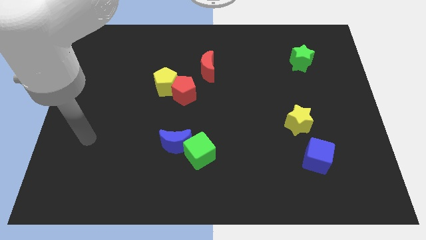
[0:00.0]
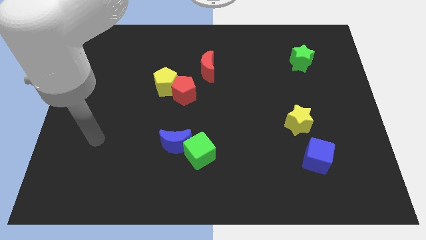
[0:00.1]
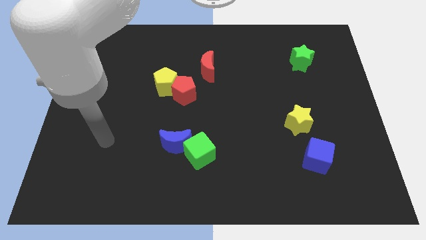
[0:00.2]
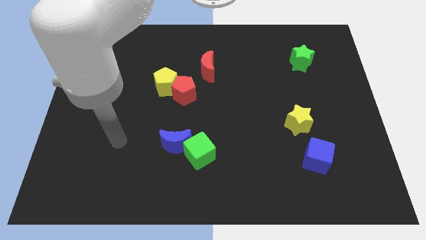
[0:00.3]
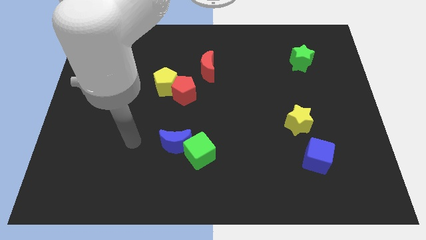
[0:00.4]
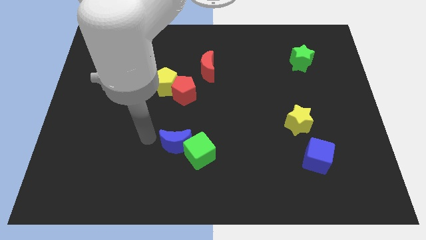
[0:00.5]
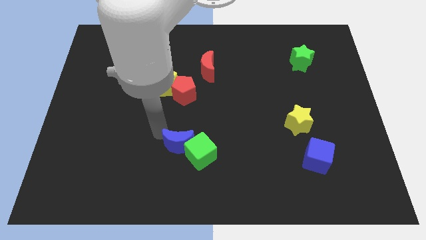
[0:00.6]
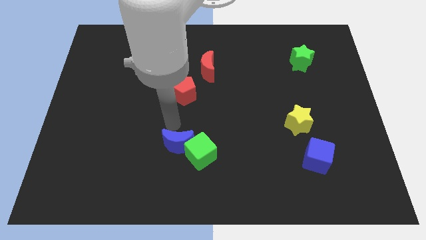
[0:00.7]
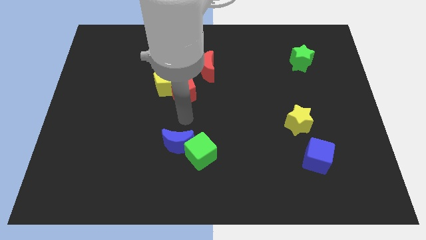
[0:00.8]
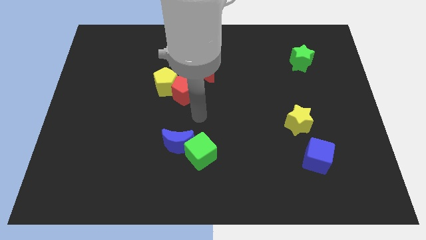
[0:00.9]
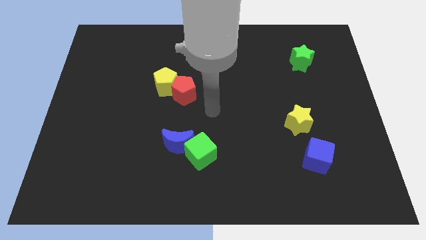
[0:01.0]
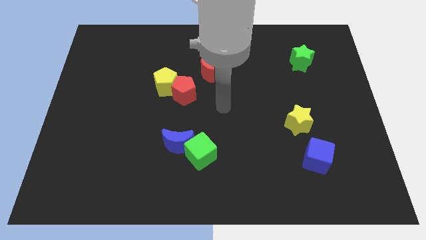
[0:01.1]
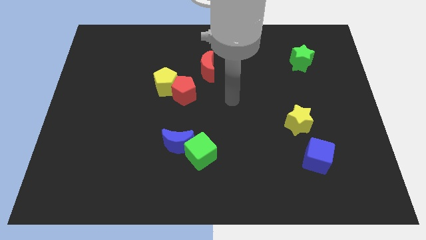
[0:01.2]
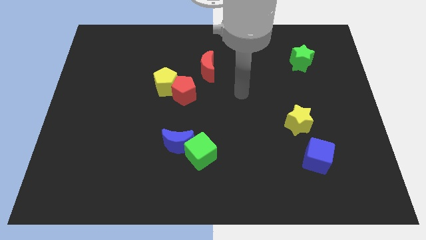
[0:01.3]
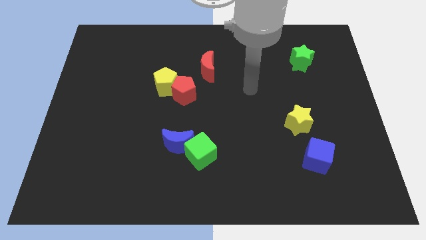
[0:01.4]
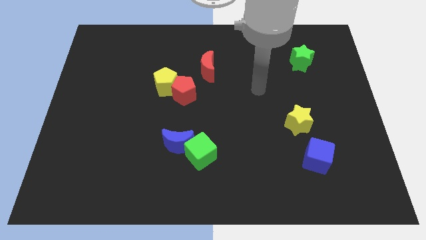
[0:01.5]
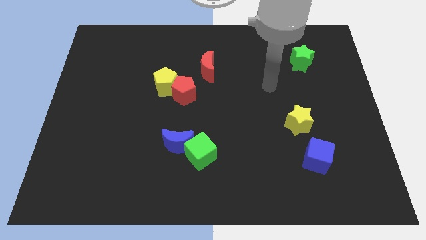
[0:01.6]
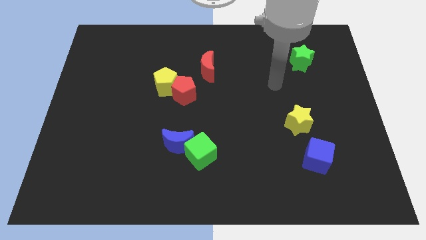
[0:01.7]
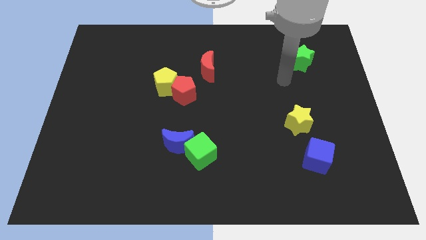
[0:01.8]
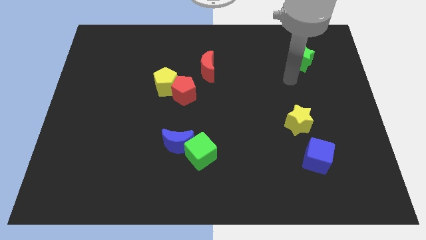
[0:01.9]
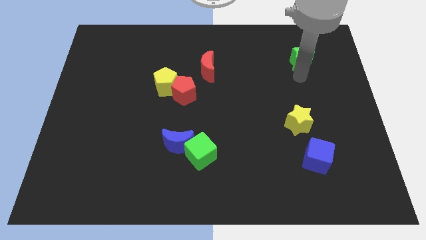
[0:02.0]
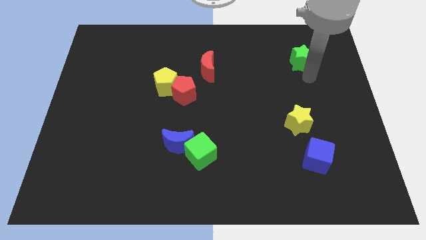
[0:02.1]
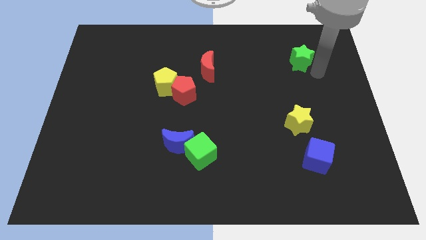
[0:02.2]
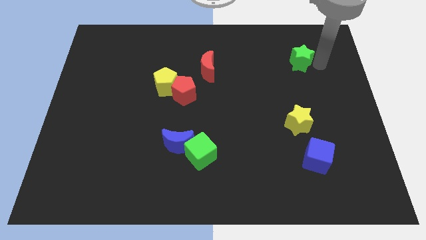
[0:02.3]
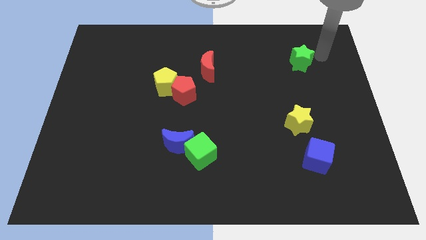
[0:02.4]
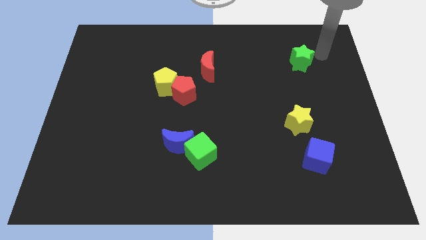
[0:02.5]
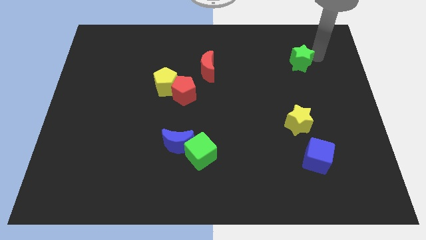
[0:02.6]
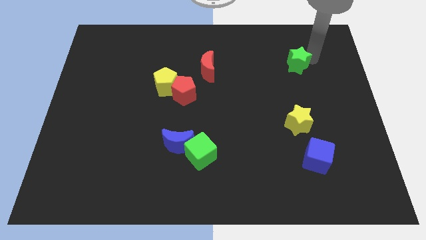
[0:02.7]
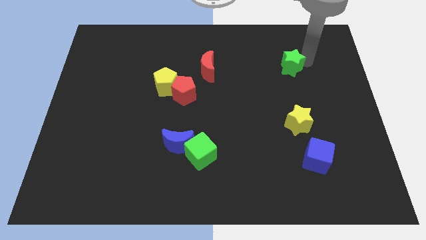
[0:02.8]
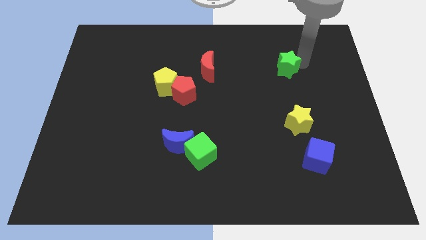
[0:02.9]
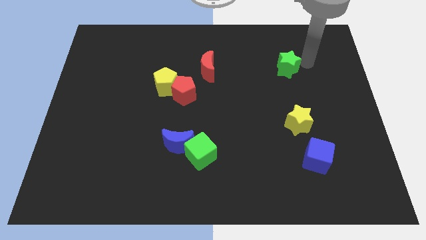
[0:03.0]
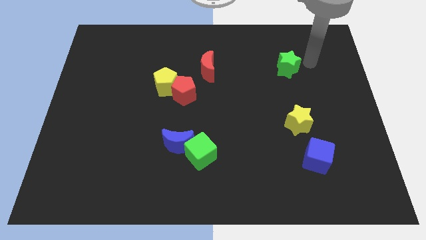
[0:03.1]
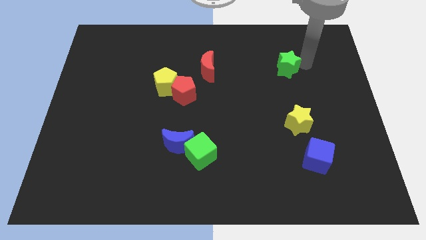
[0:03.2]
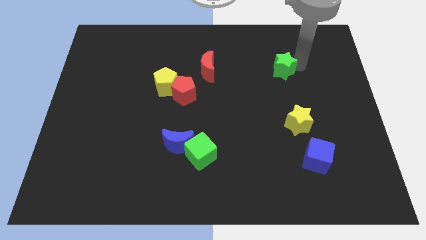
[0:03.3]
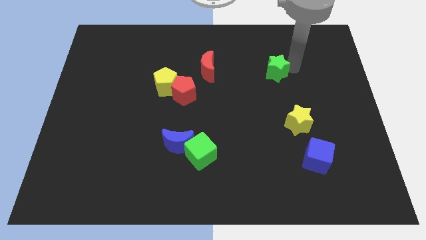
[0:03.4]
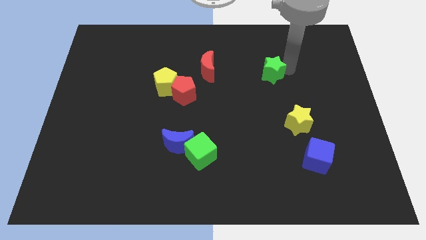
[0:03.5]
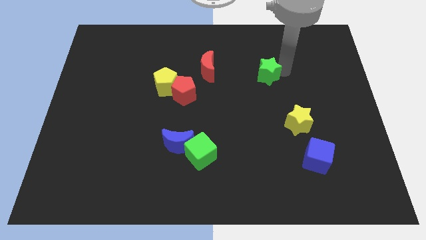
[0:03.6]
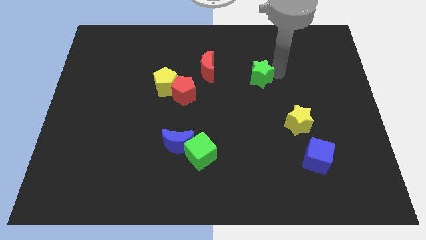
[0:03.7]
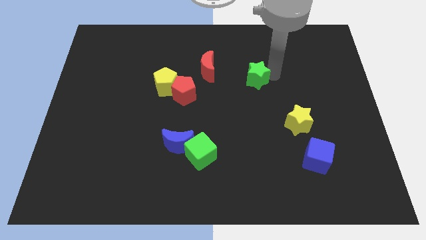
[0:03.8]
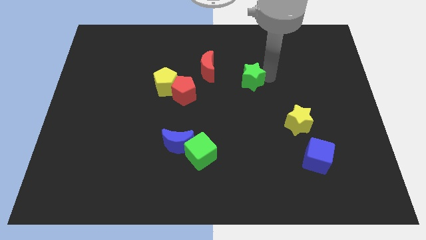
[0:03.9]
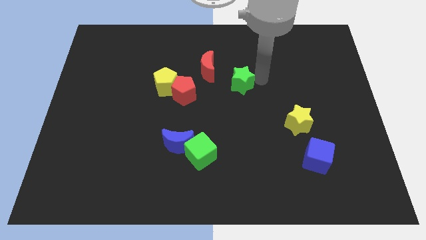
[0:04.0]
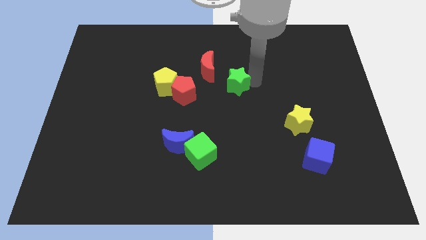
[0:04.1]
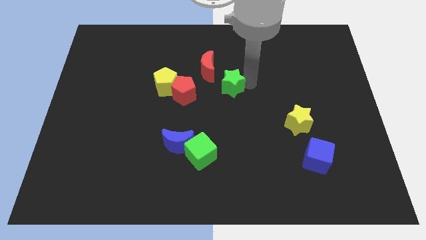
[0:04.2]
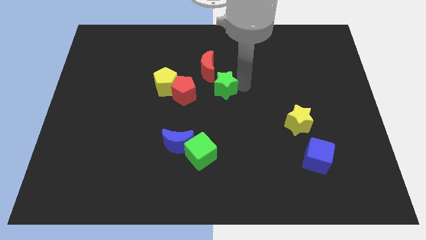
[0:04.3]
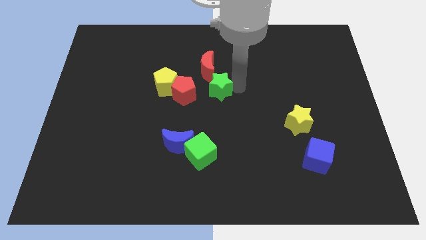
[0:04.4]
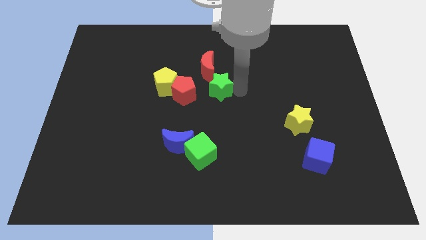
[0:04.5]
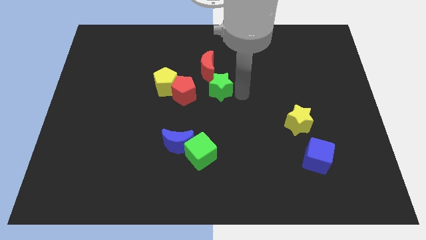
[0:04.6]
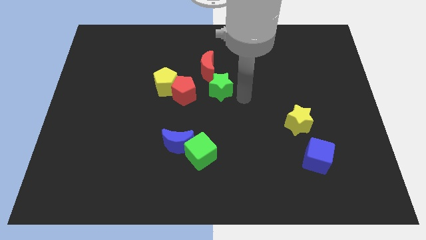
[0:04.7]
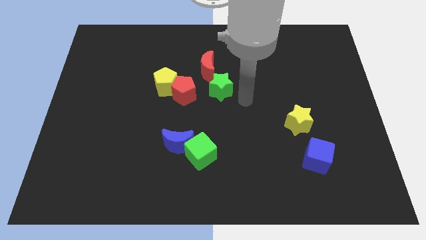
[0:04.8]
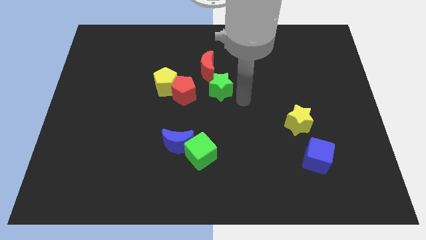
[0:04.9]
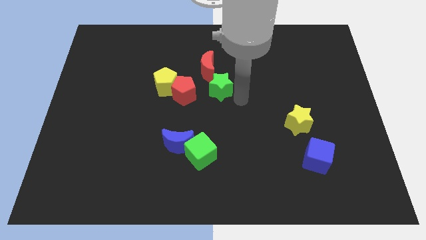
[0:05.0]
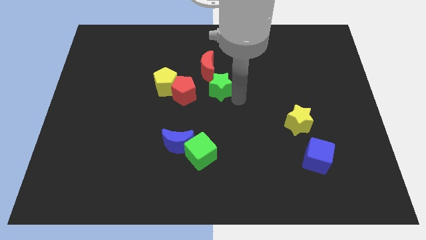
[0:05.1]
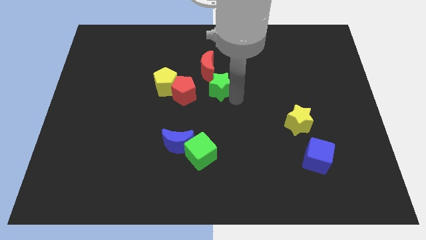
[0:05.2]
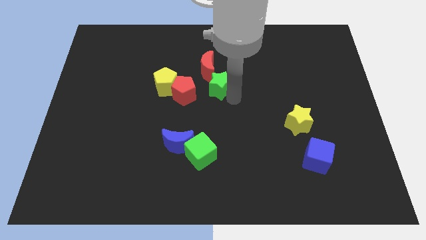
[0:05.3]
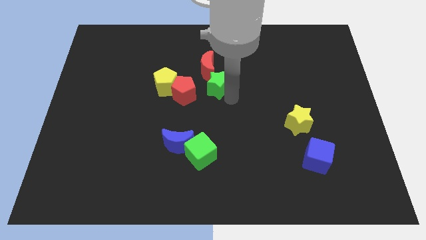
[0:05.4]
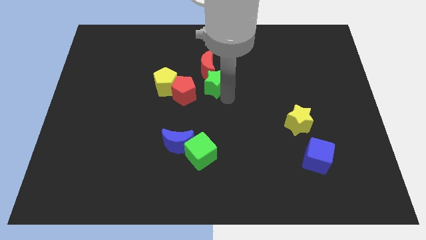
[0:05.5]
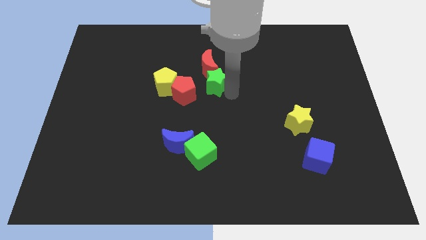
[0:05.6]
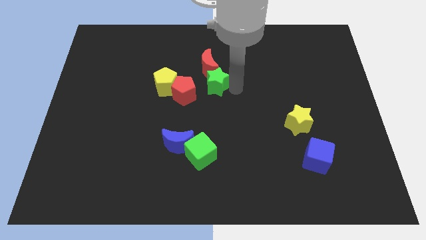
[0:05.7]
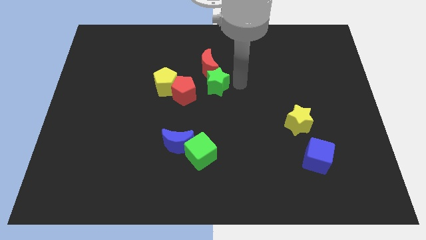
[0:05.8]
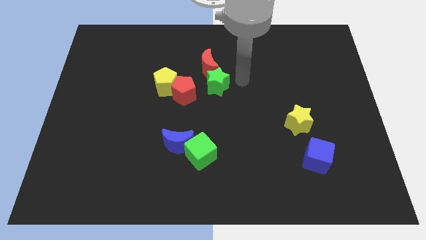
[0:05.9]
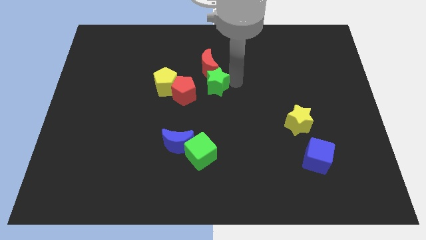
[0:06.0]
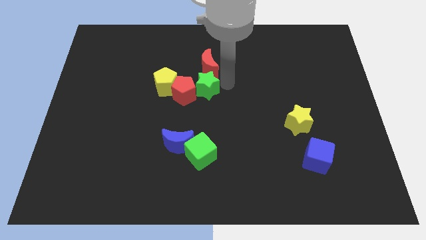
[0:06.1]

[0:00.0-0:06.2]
push the green star to the red pentagon
